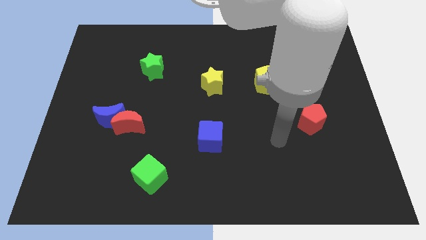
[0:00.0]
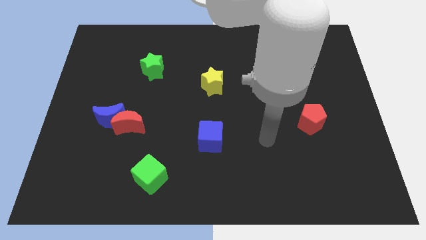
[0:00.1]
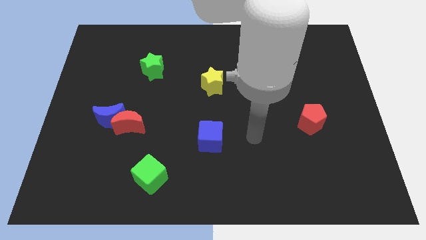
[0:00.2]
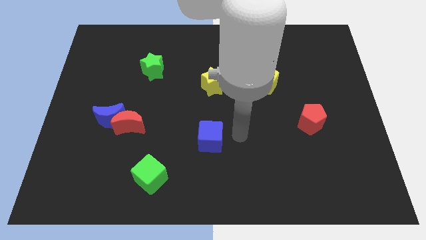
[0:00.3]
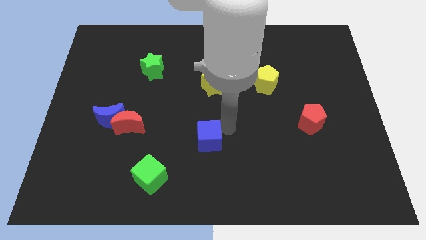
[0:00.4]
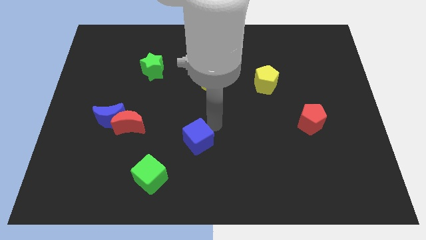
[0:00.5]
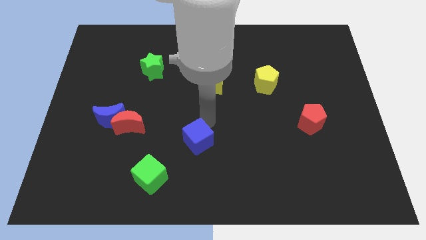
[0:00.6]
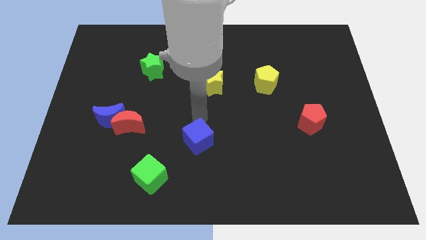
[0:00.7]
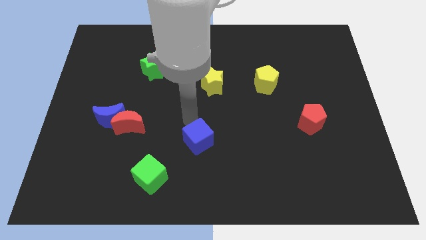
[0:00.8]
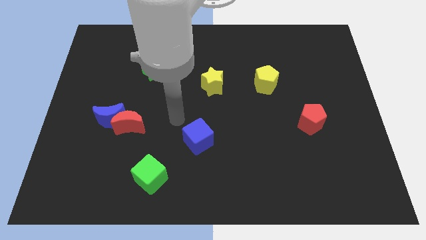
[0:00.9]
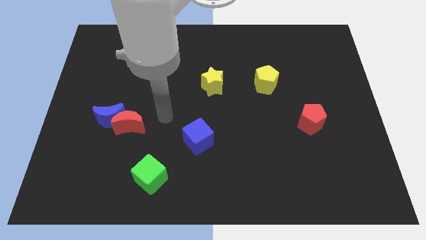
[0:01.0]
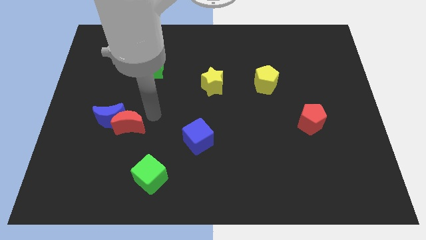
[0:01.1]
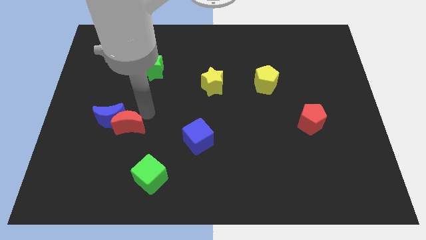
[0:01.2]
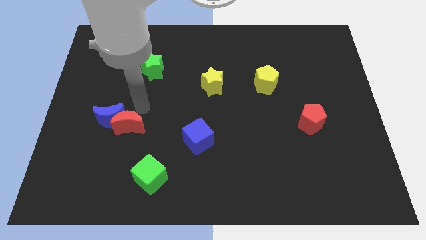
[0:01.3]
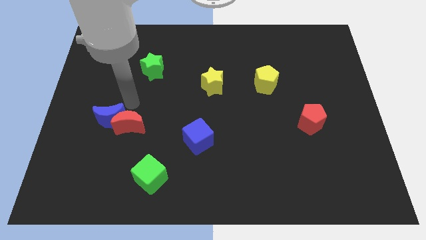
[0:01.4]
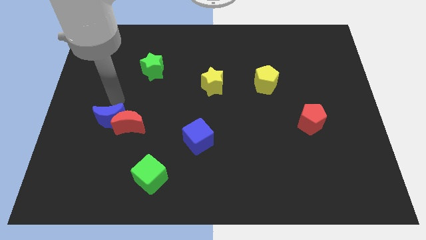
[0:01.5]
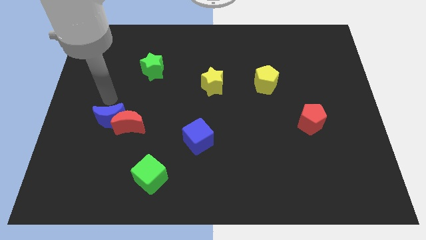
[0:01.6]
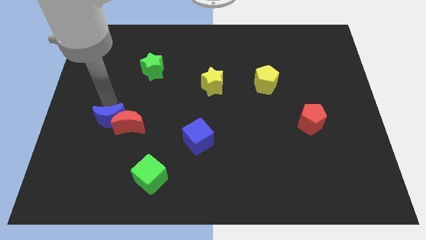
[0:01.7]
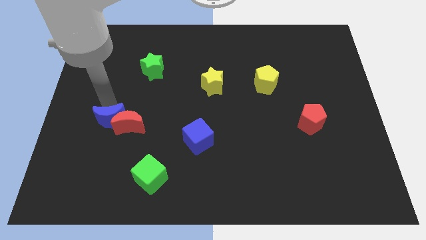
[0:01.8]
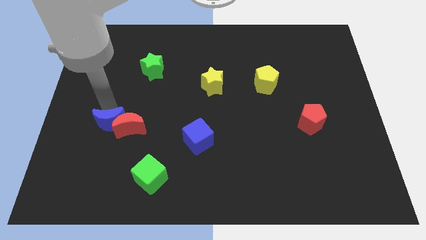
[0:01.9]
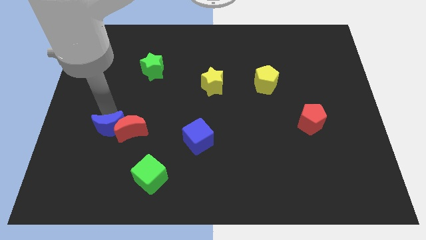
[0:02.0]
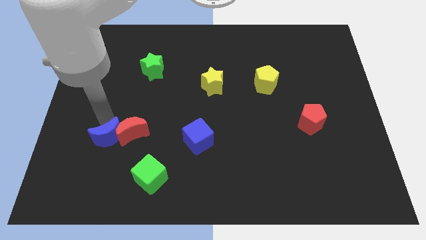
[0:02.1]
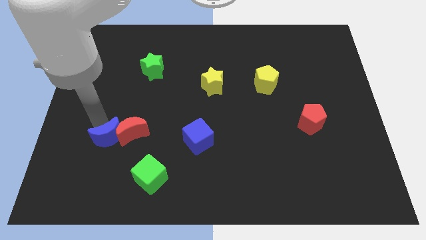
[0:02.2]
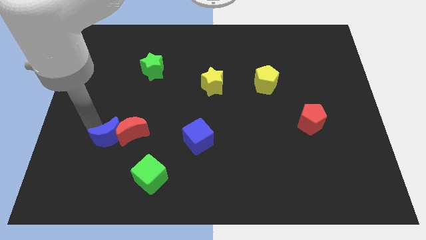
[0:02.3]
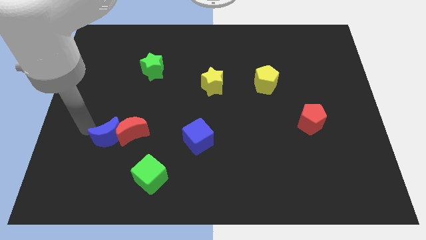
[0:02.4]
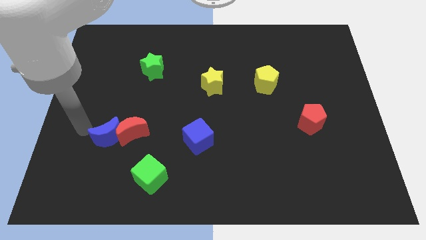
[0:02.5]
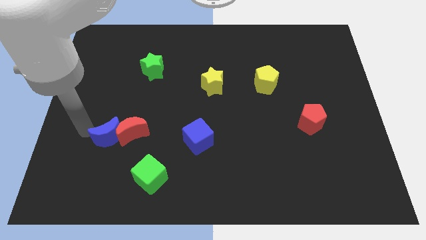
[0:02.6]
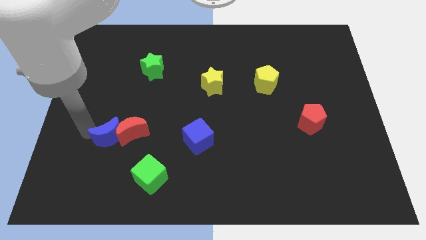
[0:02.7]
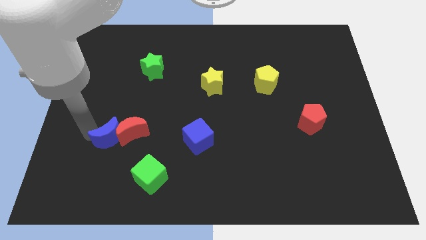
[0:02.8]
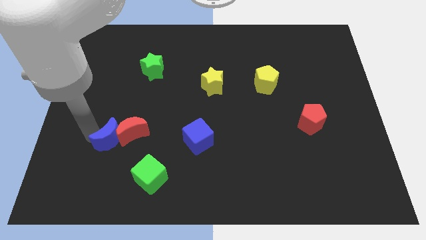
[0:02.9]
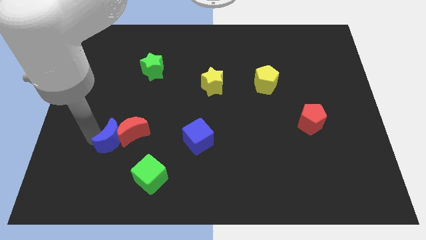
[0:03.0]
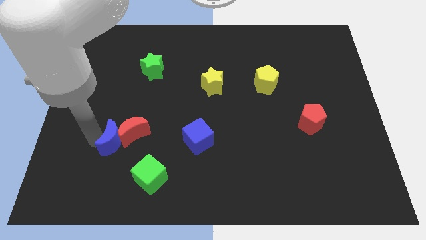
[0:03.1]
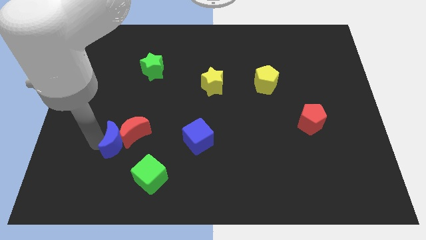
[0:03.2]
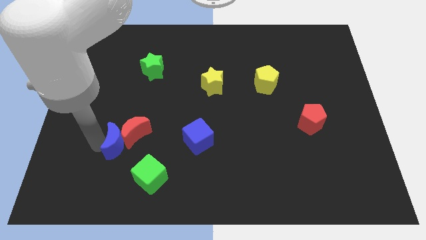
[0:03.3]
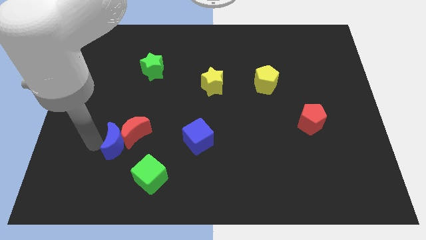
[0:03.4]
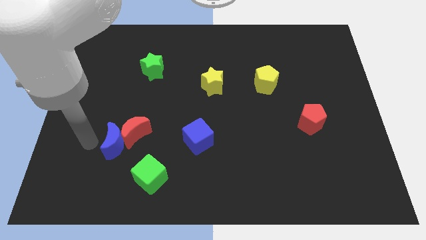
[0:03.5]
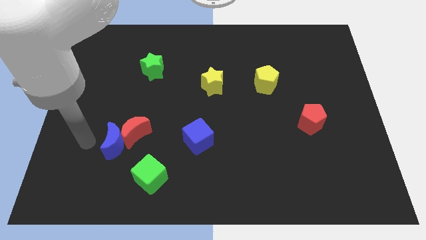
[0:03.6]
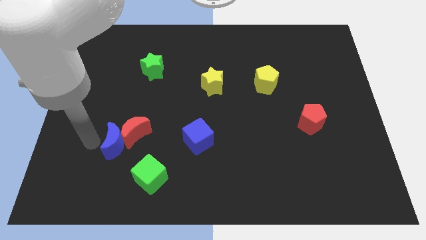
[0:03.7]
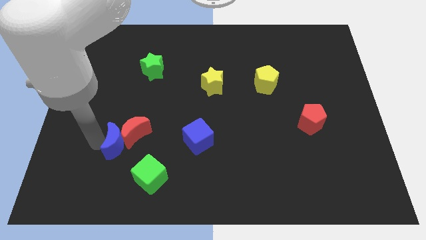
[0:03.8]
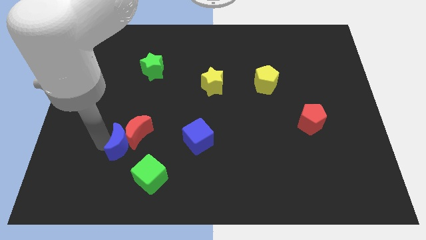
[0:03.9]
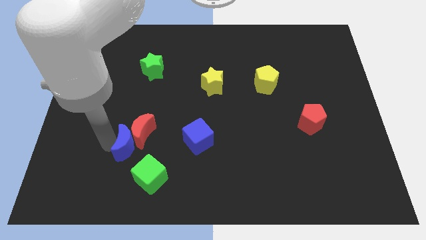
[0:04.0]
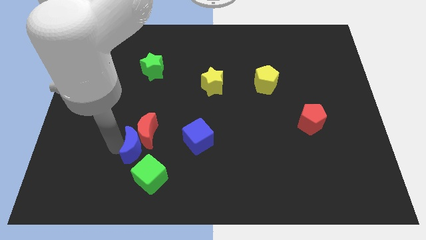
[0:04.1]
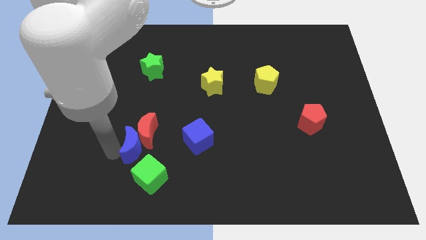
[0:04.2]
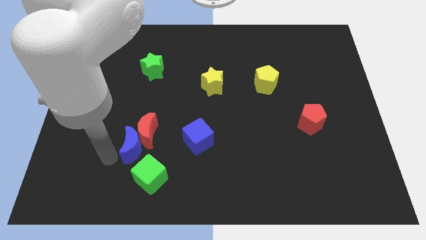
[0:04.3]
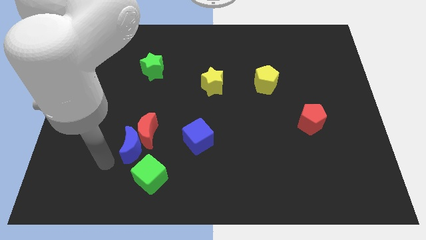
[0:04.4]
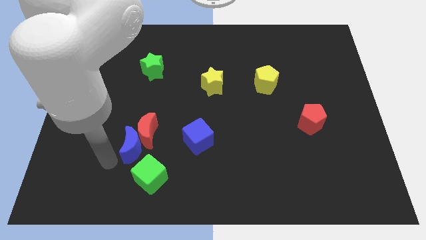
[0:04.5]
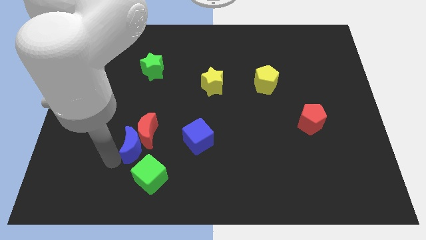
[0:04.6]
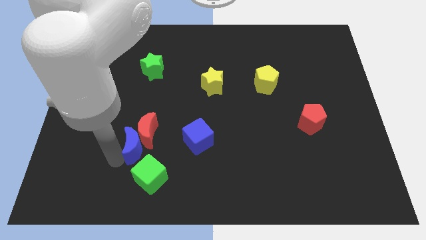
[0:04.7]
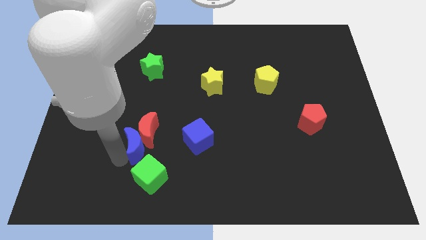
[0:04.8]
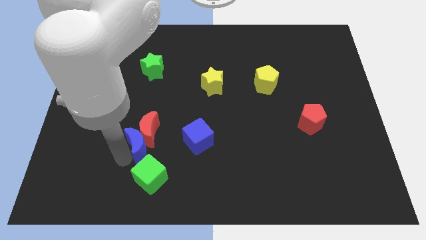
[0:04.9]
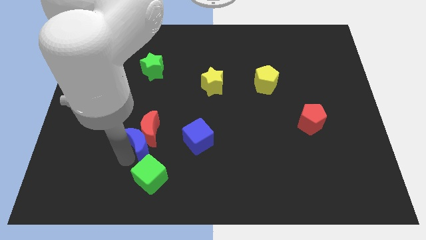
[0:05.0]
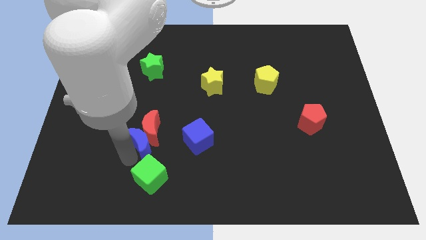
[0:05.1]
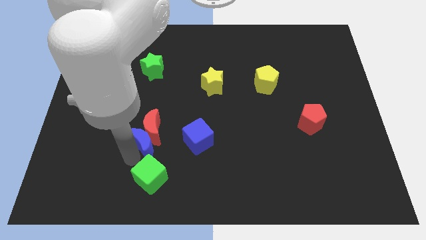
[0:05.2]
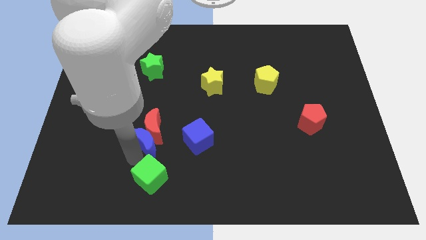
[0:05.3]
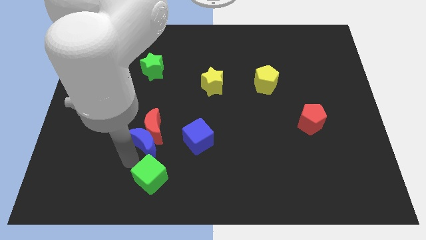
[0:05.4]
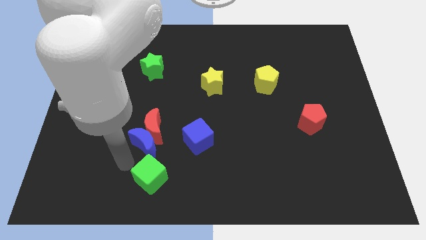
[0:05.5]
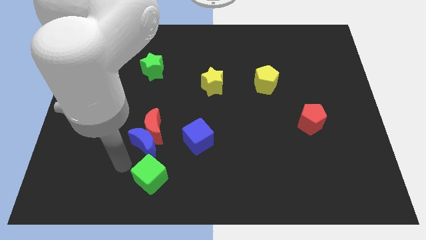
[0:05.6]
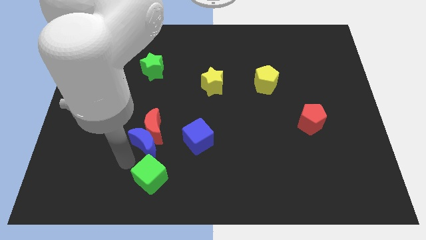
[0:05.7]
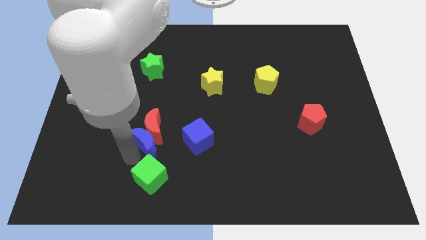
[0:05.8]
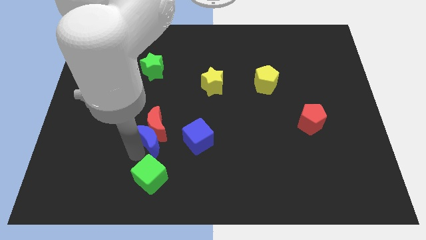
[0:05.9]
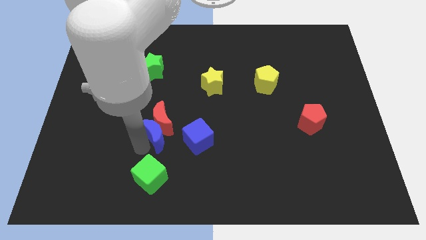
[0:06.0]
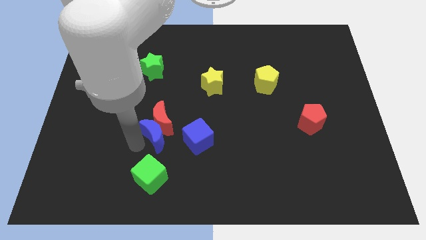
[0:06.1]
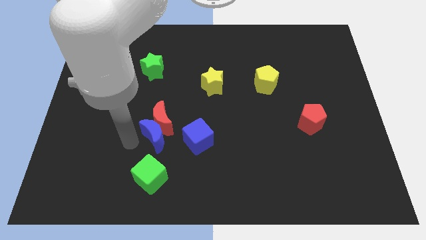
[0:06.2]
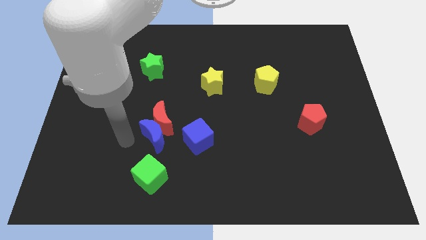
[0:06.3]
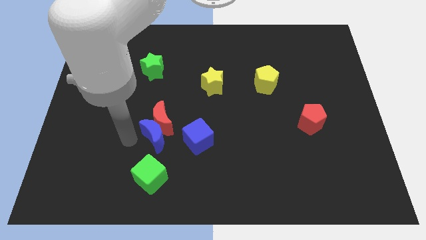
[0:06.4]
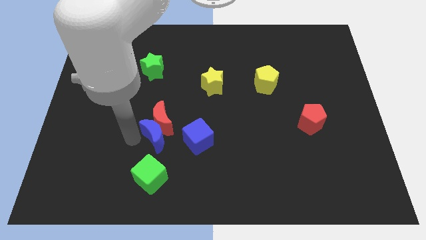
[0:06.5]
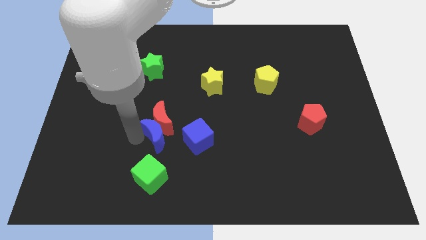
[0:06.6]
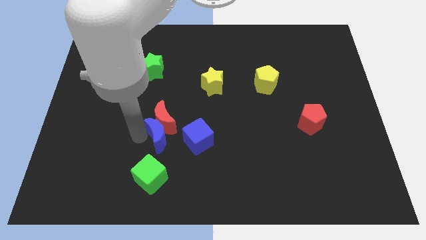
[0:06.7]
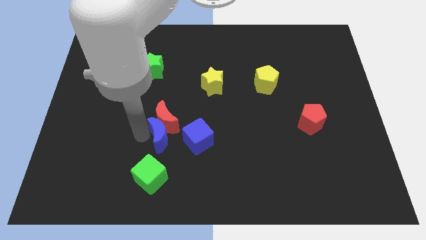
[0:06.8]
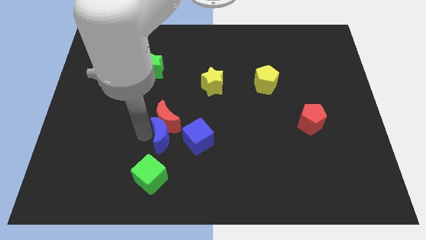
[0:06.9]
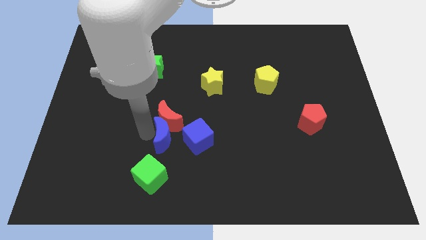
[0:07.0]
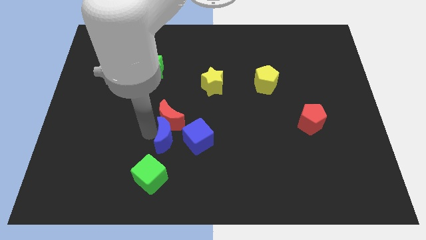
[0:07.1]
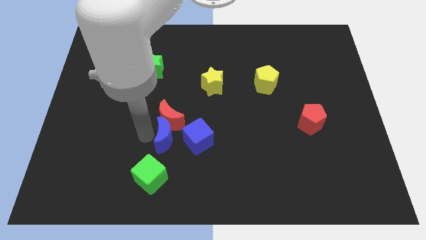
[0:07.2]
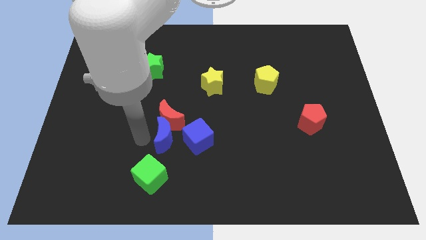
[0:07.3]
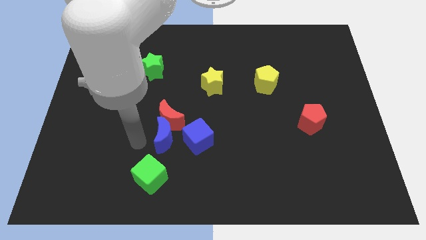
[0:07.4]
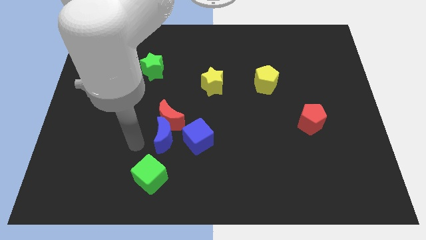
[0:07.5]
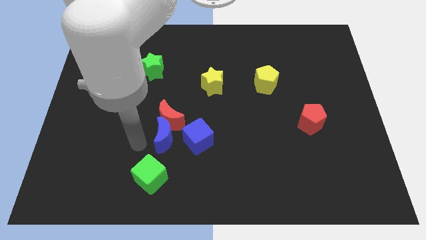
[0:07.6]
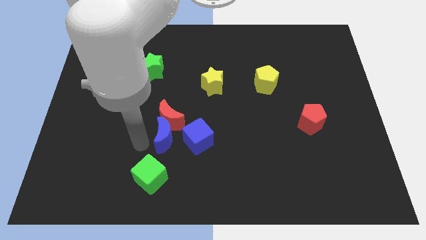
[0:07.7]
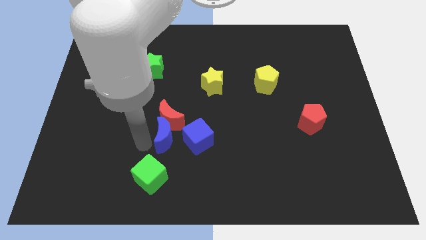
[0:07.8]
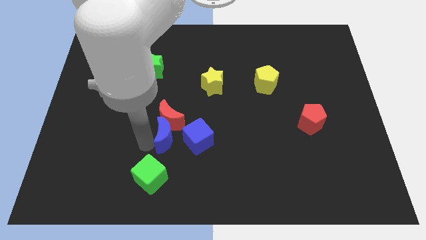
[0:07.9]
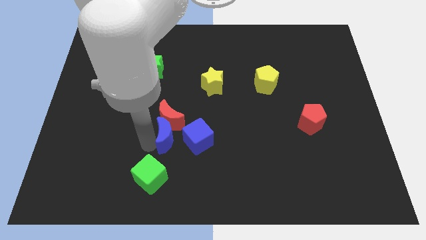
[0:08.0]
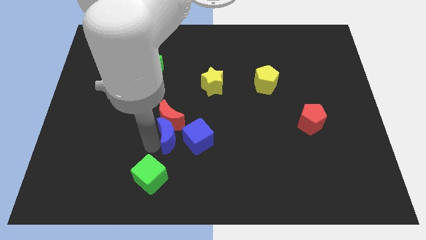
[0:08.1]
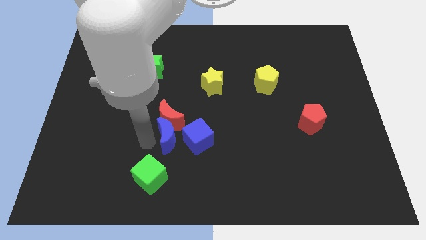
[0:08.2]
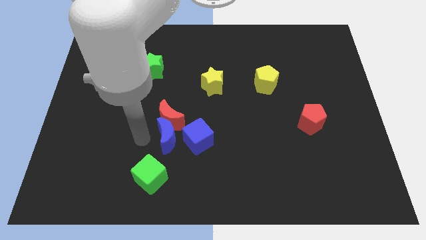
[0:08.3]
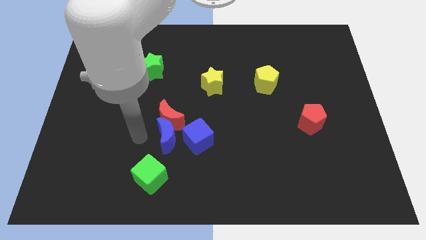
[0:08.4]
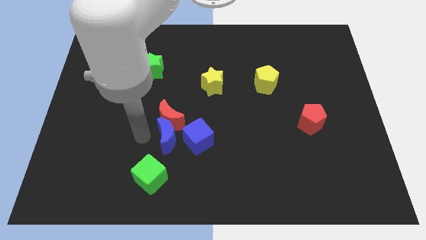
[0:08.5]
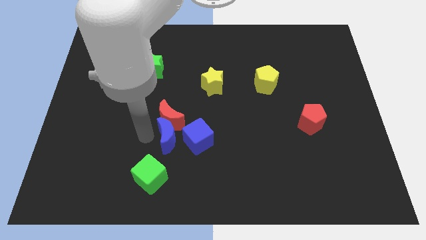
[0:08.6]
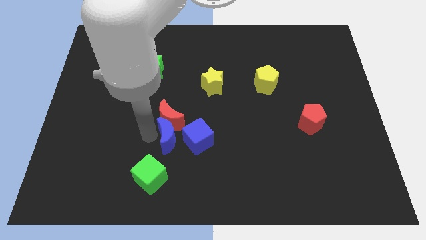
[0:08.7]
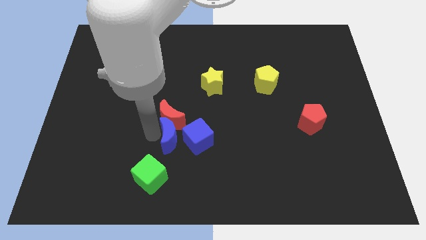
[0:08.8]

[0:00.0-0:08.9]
slide the blue moon towards the blue cube
